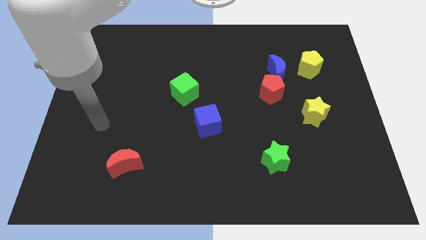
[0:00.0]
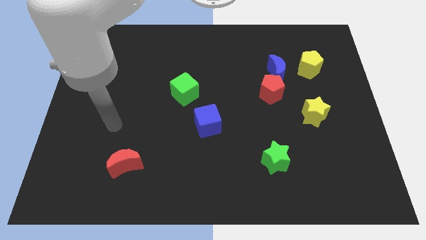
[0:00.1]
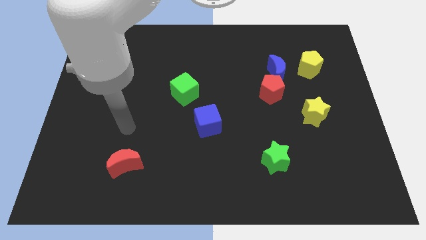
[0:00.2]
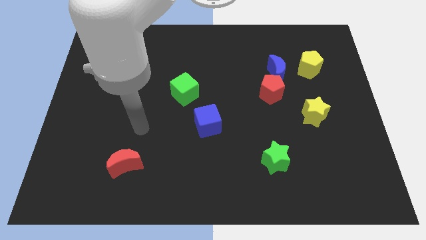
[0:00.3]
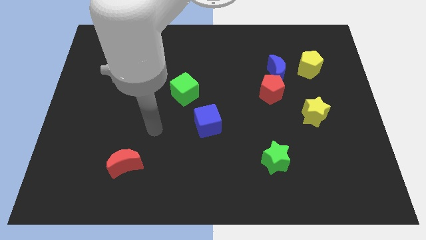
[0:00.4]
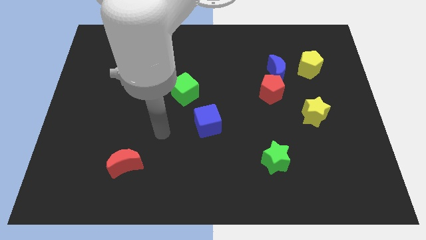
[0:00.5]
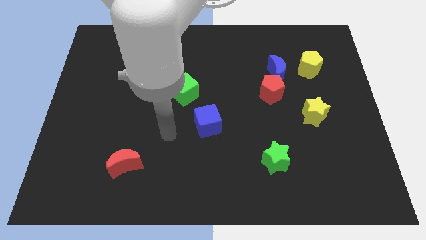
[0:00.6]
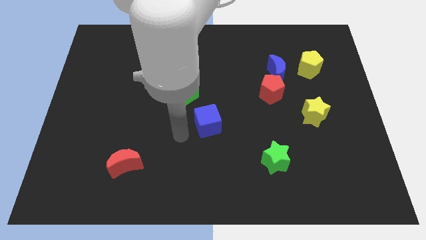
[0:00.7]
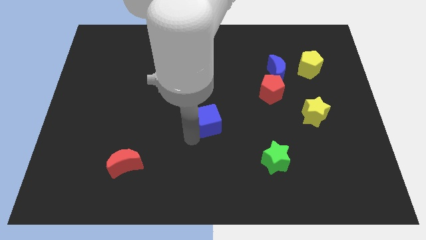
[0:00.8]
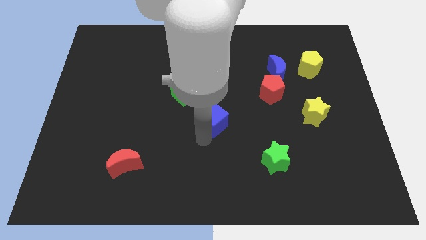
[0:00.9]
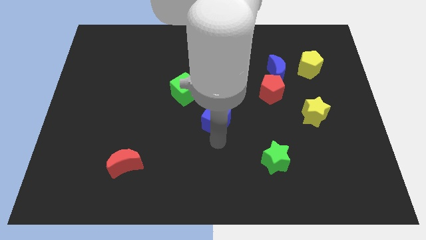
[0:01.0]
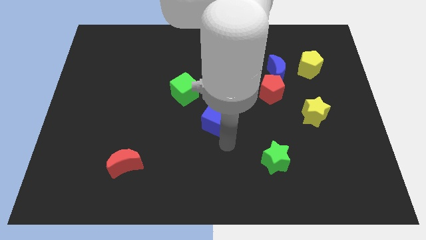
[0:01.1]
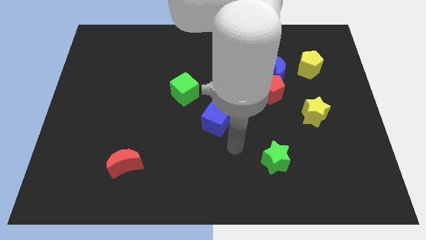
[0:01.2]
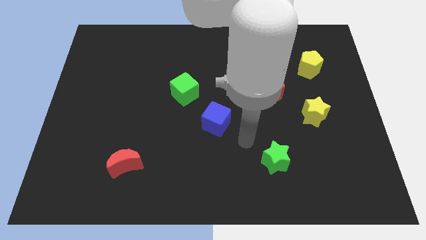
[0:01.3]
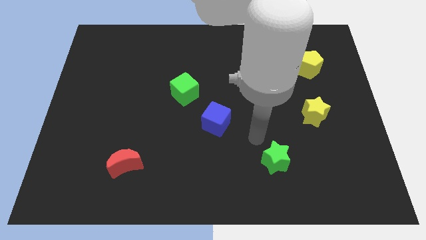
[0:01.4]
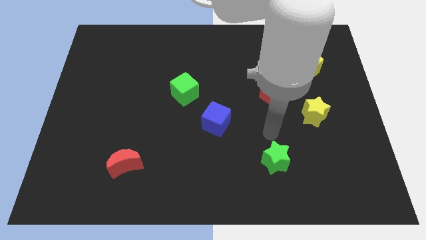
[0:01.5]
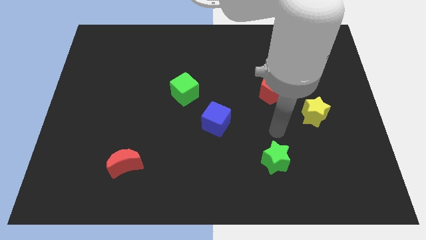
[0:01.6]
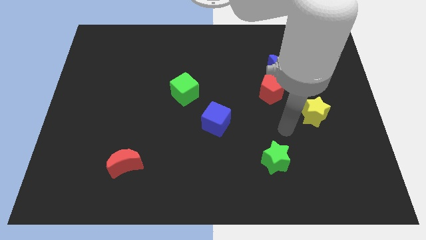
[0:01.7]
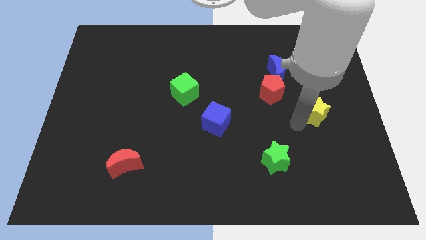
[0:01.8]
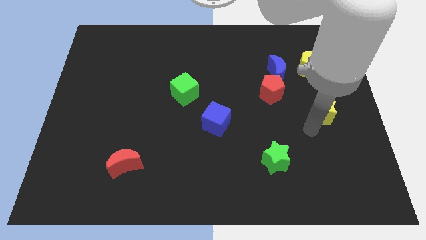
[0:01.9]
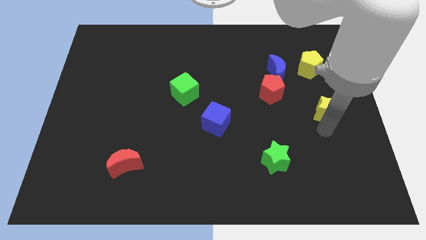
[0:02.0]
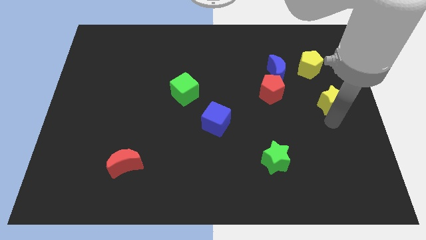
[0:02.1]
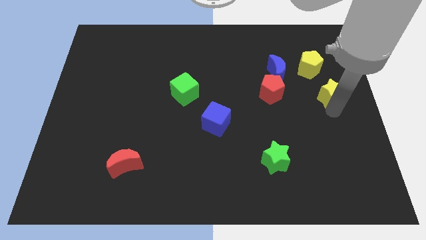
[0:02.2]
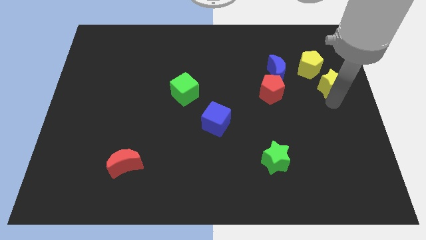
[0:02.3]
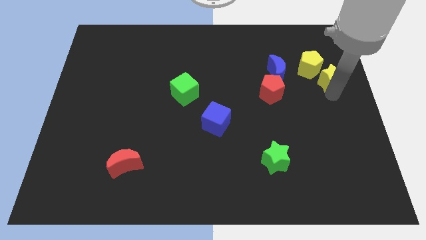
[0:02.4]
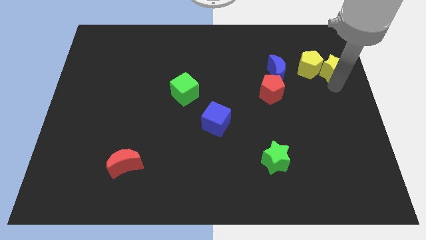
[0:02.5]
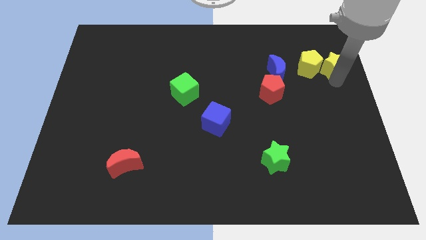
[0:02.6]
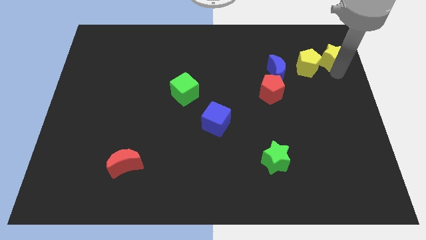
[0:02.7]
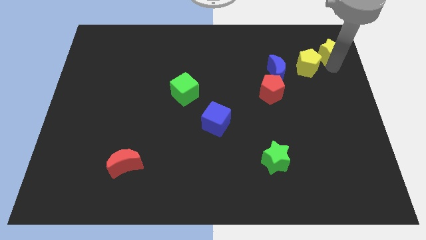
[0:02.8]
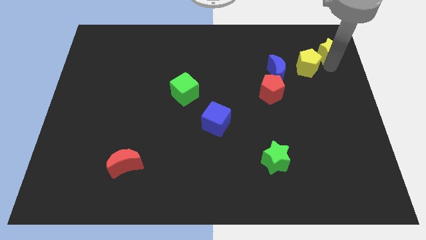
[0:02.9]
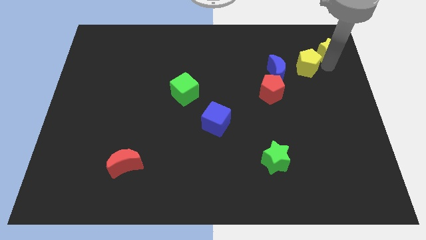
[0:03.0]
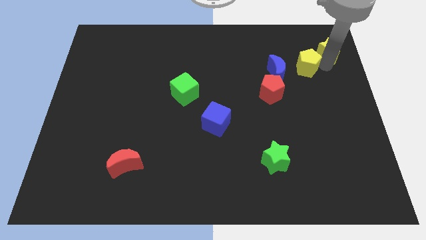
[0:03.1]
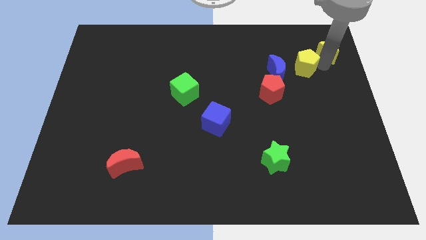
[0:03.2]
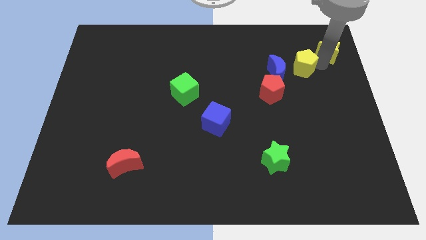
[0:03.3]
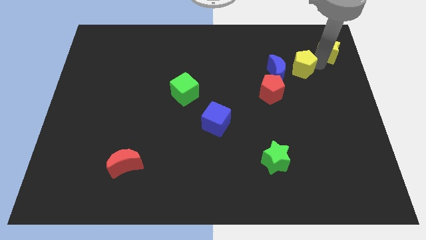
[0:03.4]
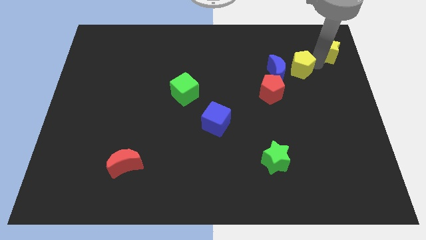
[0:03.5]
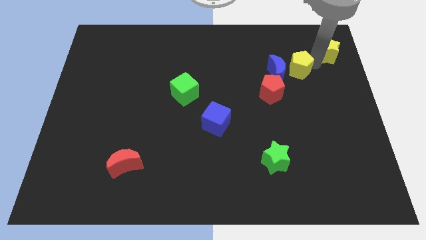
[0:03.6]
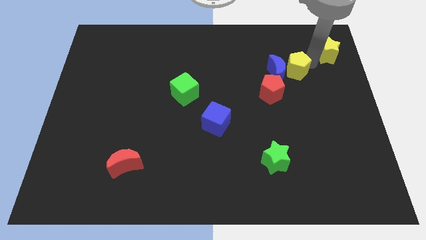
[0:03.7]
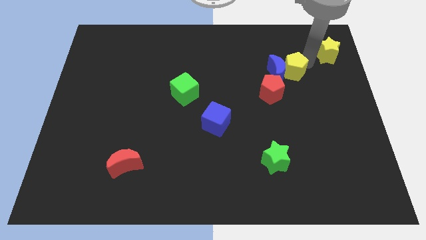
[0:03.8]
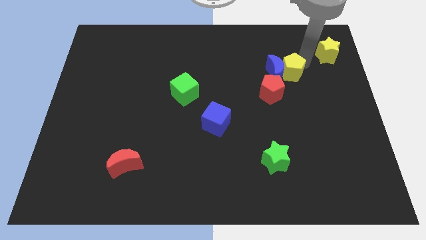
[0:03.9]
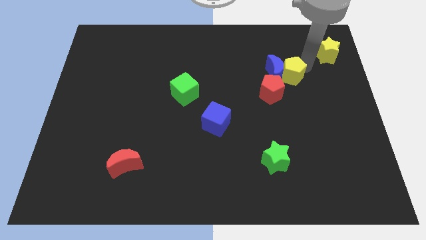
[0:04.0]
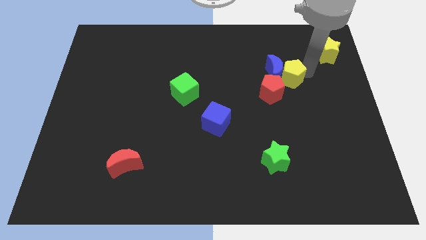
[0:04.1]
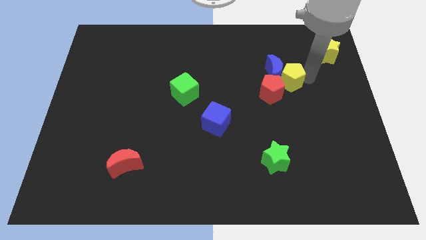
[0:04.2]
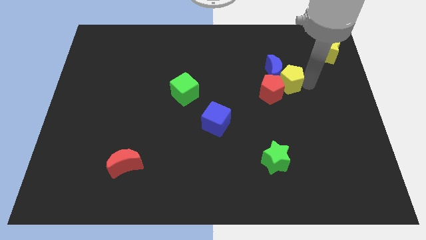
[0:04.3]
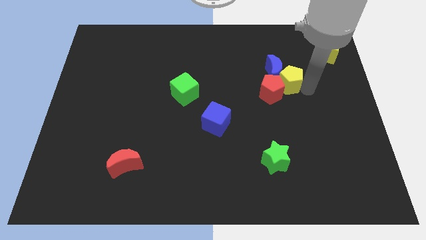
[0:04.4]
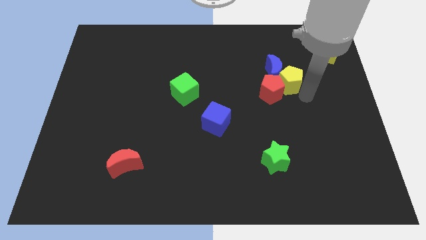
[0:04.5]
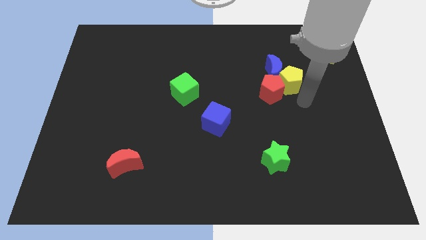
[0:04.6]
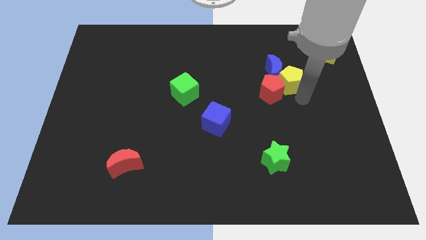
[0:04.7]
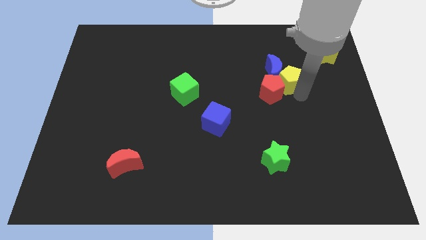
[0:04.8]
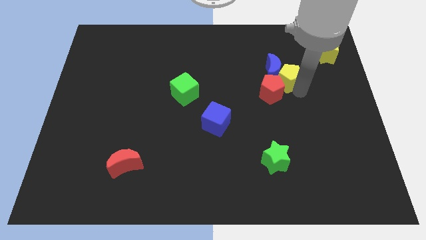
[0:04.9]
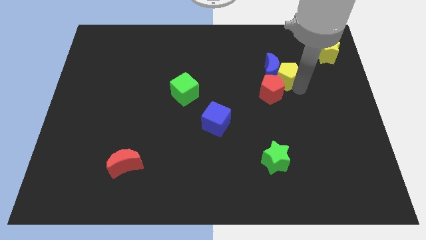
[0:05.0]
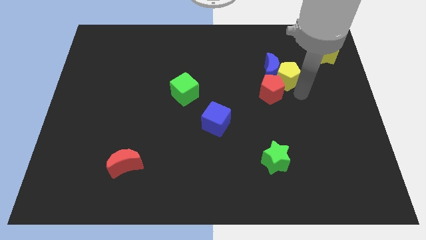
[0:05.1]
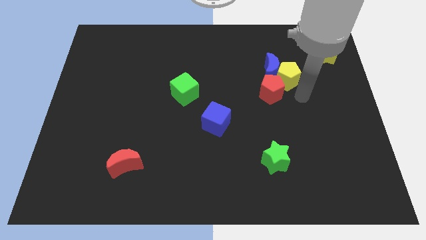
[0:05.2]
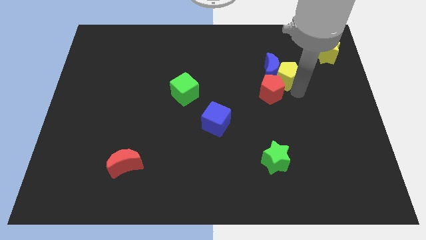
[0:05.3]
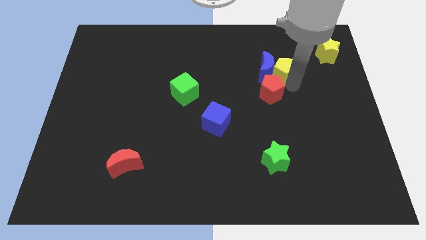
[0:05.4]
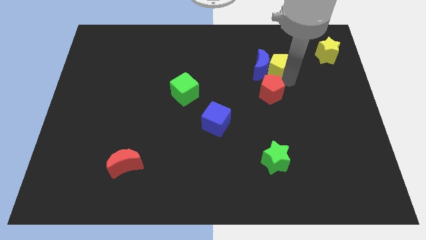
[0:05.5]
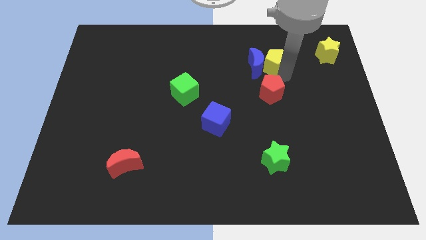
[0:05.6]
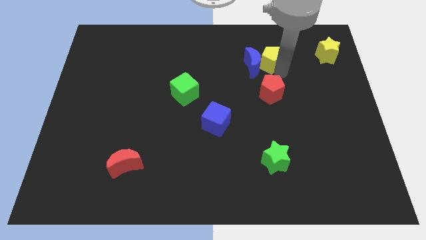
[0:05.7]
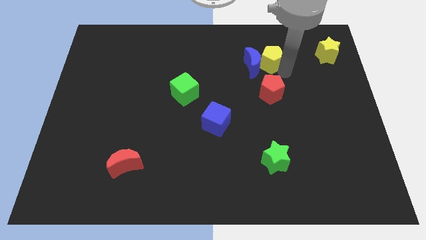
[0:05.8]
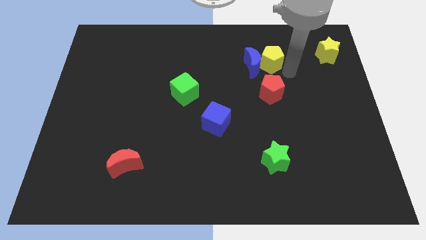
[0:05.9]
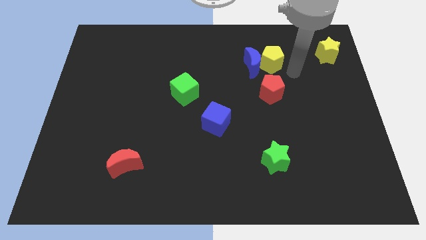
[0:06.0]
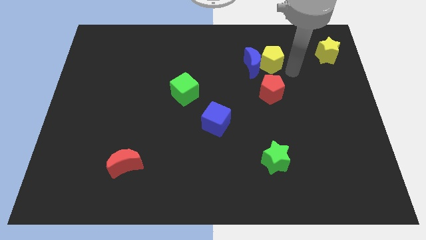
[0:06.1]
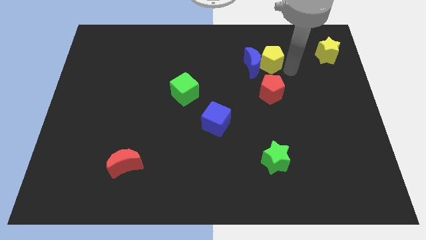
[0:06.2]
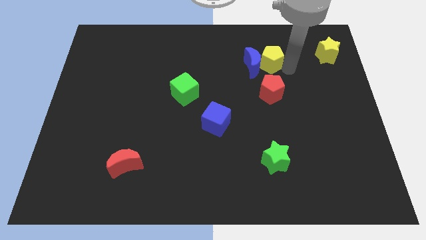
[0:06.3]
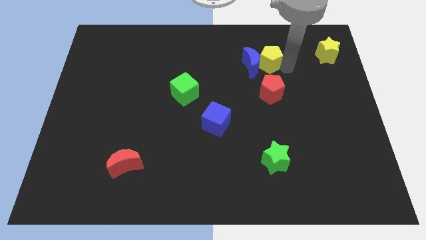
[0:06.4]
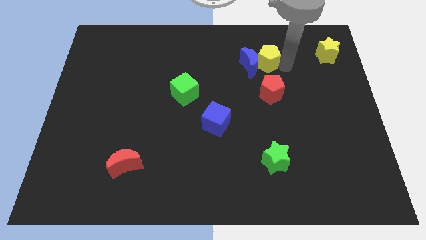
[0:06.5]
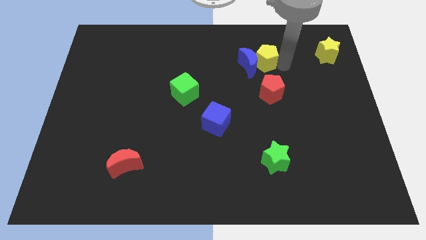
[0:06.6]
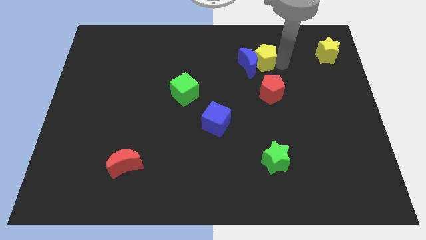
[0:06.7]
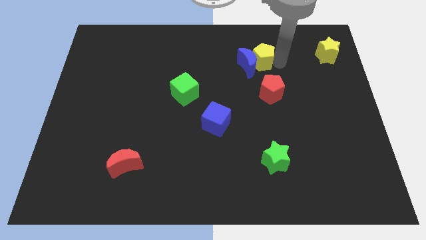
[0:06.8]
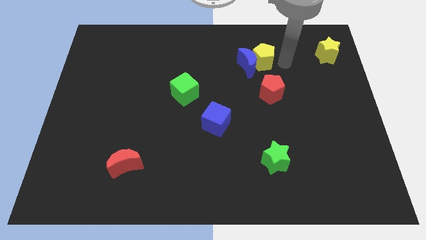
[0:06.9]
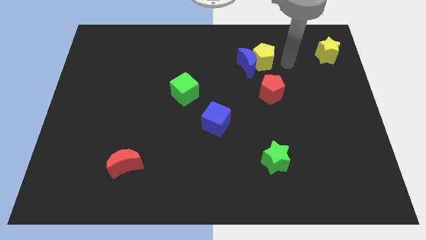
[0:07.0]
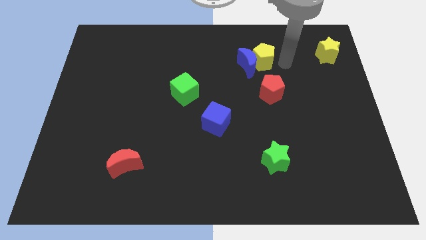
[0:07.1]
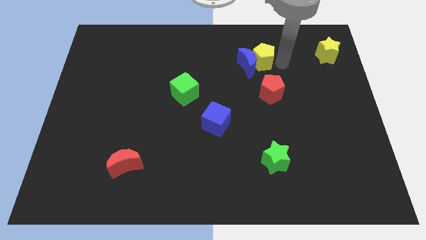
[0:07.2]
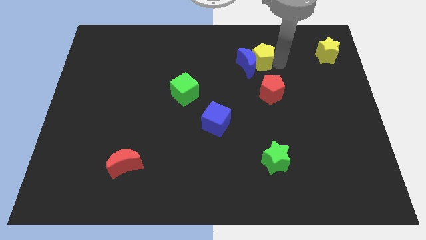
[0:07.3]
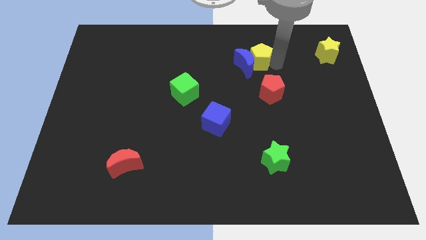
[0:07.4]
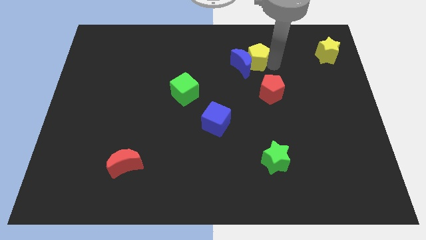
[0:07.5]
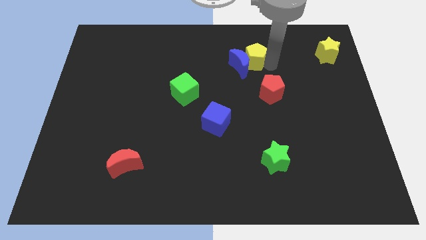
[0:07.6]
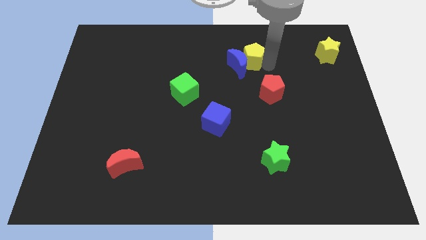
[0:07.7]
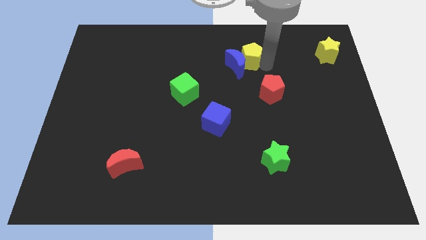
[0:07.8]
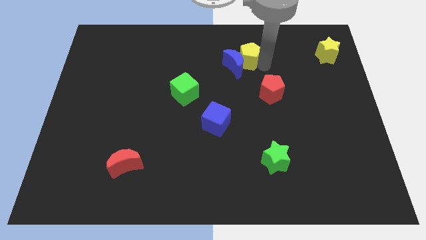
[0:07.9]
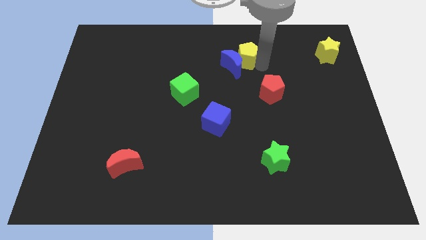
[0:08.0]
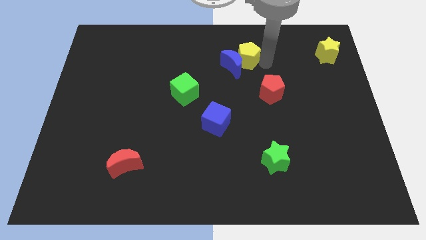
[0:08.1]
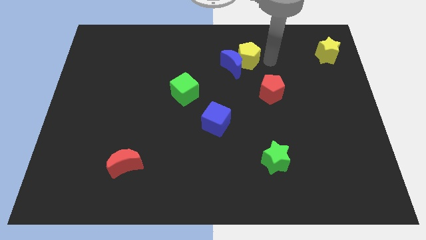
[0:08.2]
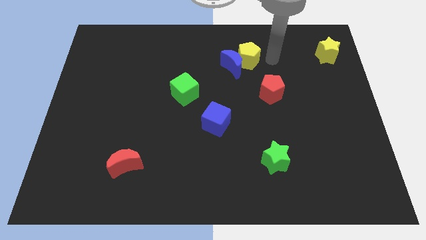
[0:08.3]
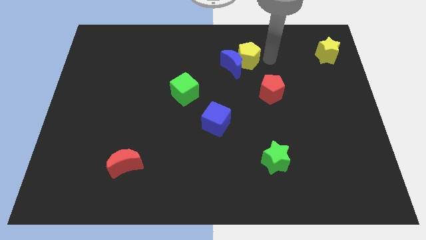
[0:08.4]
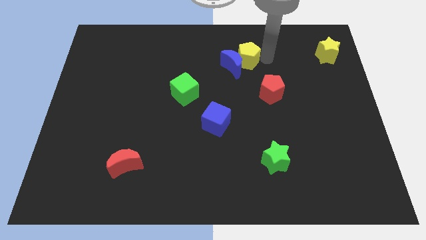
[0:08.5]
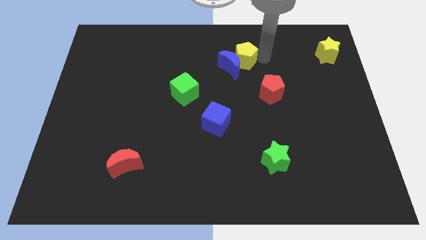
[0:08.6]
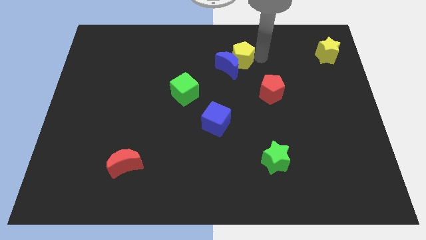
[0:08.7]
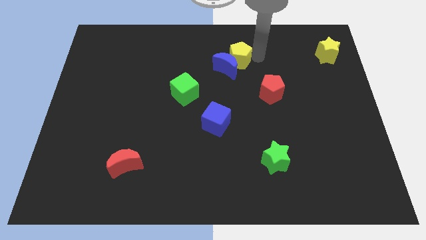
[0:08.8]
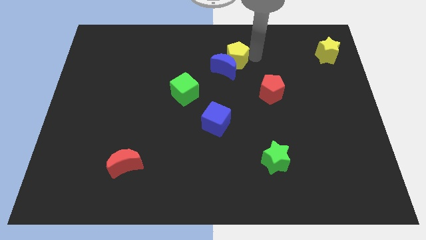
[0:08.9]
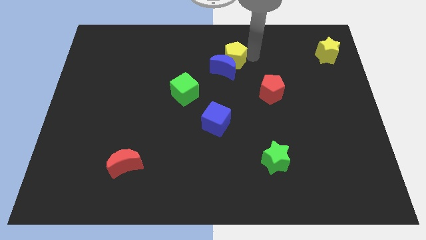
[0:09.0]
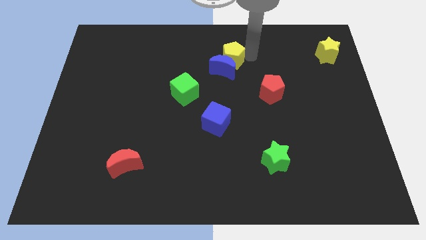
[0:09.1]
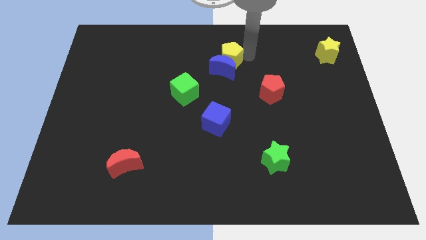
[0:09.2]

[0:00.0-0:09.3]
push the yellow pentagon to the left
